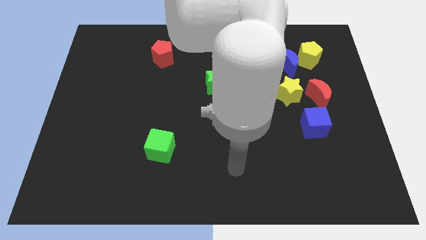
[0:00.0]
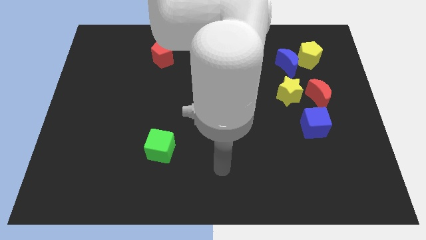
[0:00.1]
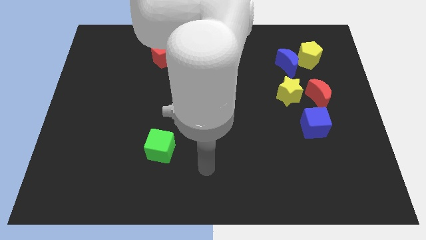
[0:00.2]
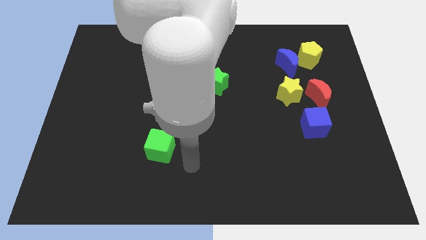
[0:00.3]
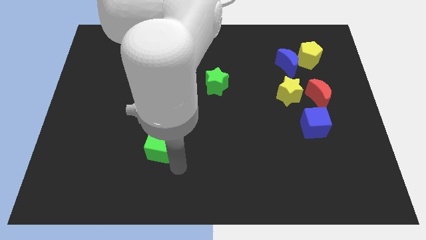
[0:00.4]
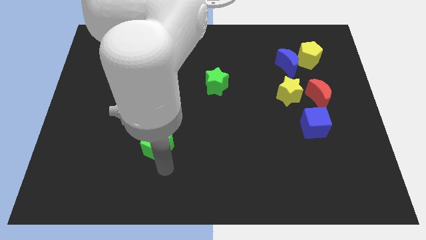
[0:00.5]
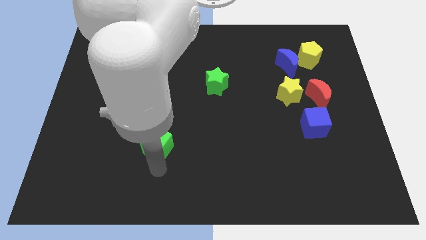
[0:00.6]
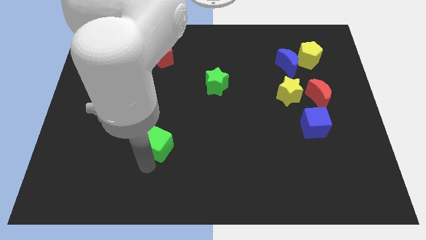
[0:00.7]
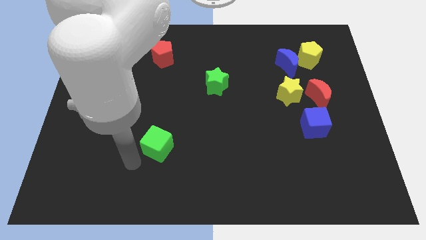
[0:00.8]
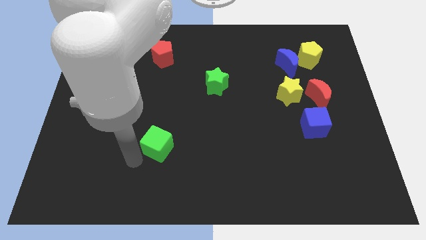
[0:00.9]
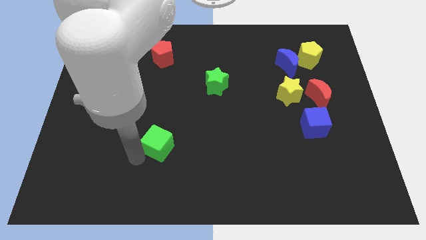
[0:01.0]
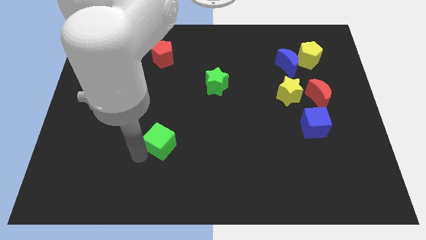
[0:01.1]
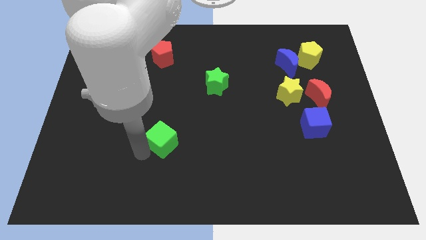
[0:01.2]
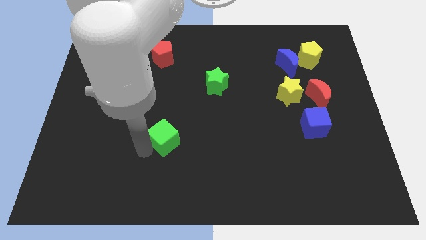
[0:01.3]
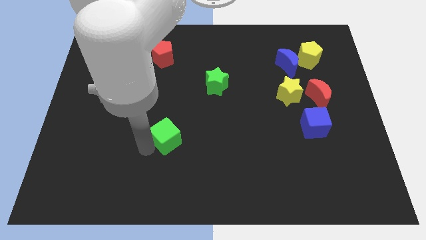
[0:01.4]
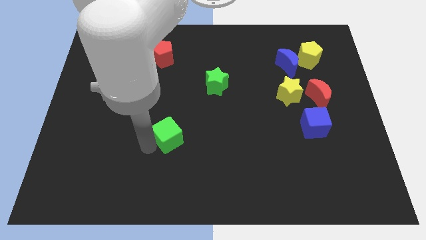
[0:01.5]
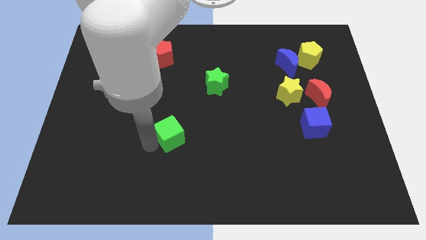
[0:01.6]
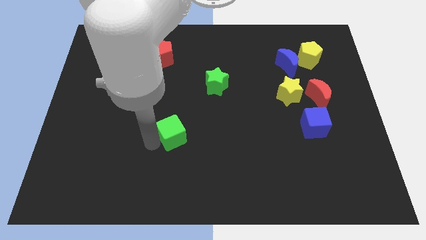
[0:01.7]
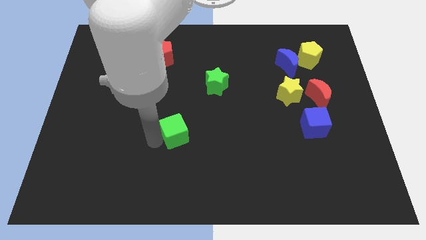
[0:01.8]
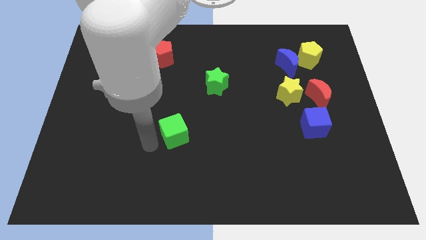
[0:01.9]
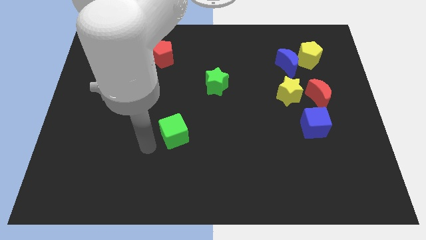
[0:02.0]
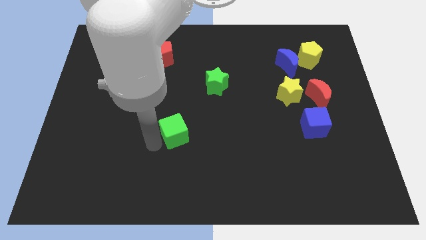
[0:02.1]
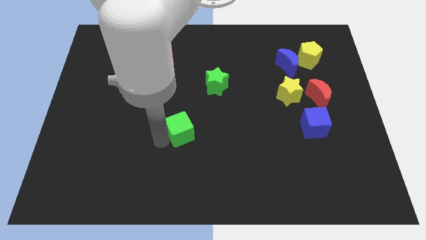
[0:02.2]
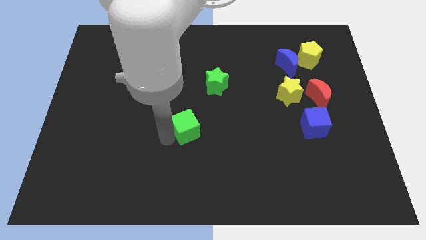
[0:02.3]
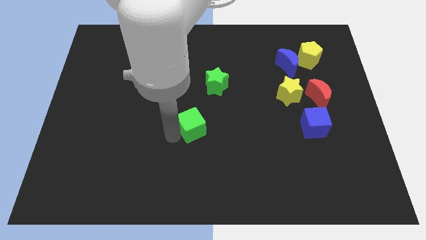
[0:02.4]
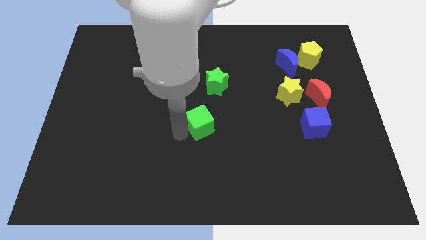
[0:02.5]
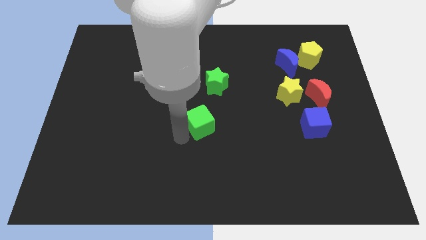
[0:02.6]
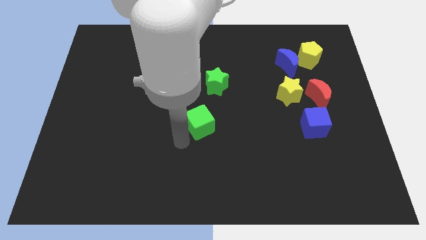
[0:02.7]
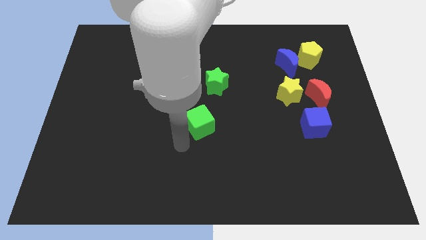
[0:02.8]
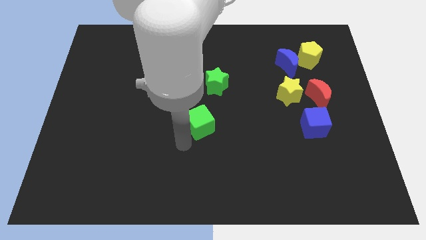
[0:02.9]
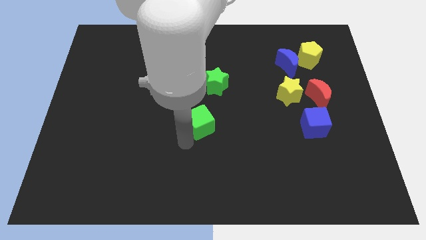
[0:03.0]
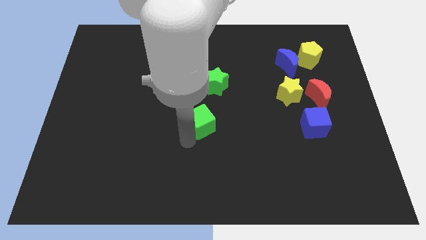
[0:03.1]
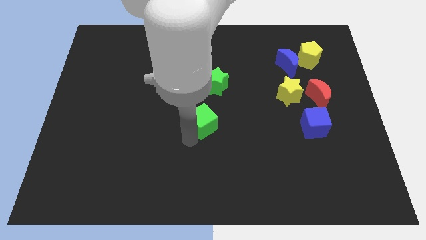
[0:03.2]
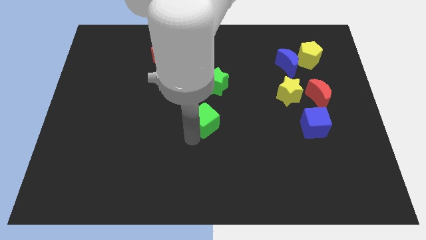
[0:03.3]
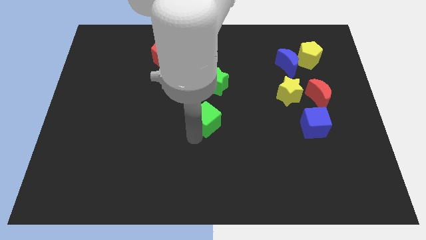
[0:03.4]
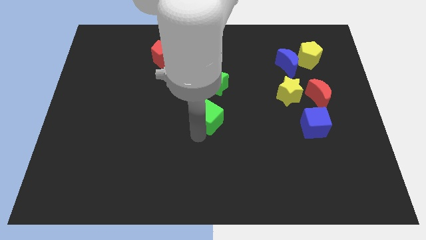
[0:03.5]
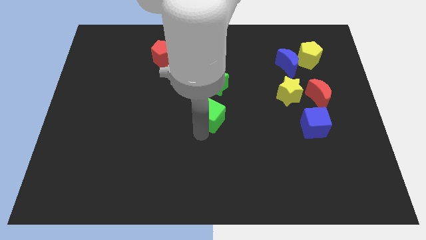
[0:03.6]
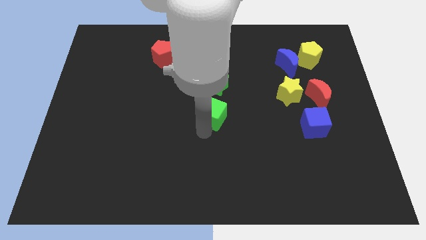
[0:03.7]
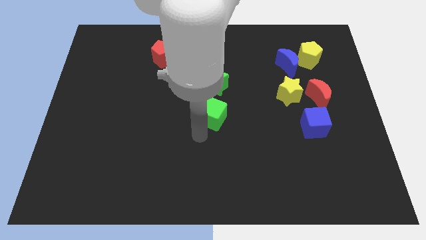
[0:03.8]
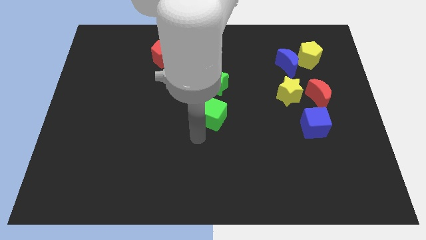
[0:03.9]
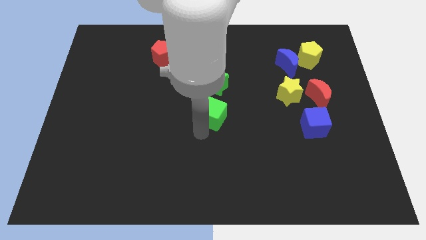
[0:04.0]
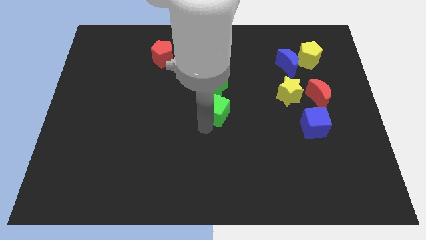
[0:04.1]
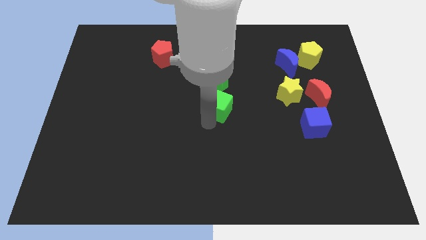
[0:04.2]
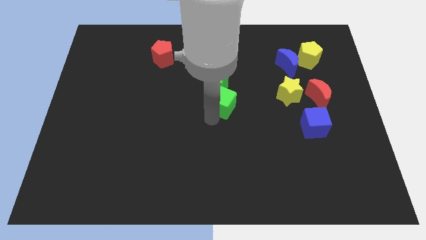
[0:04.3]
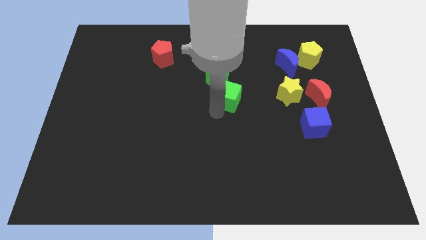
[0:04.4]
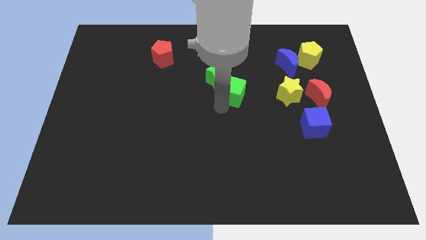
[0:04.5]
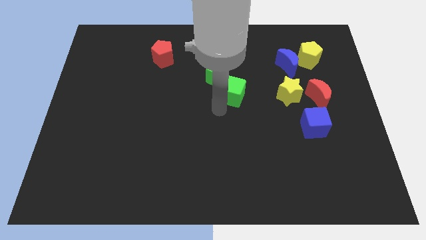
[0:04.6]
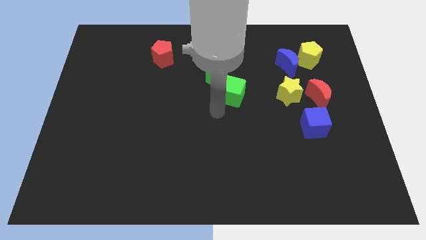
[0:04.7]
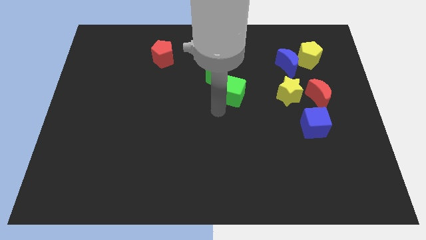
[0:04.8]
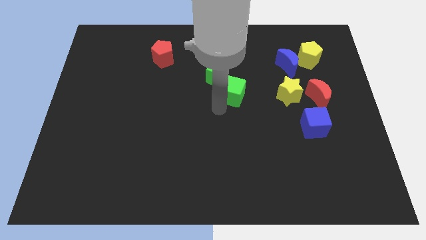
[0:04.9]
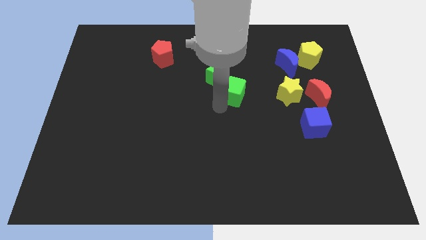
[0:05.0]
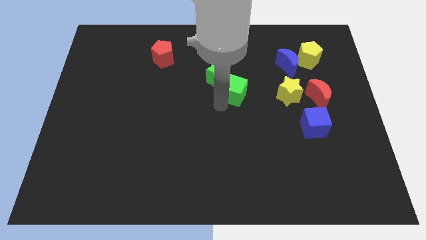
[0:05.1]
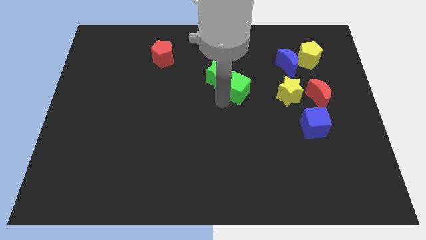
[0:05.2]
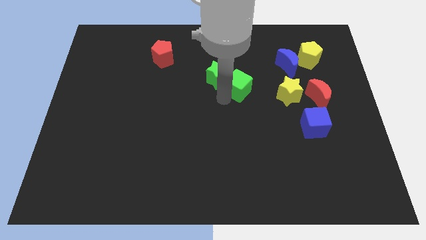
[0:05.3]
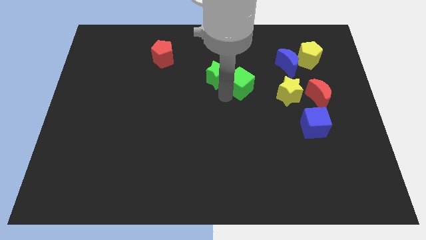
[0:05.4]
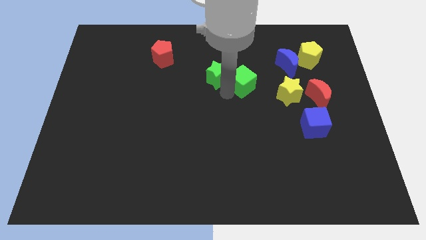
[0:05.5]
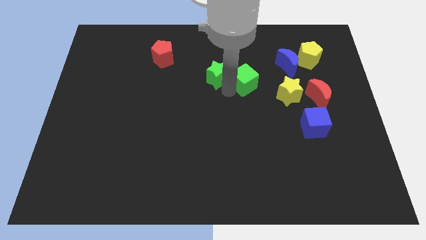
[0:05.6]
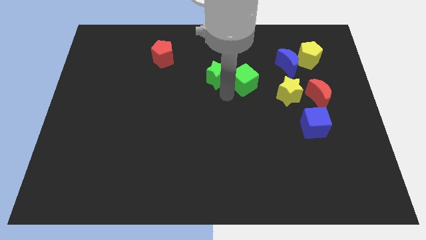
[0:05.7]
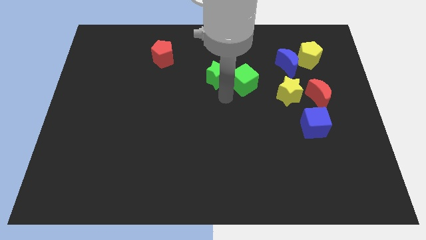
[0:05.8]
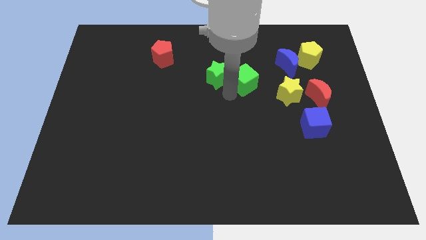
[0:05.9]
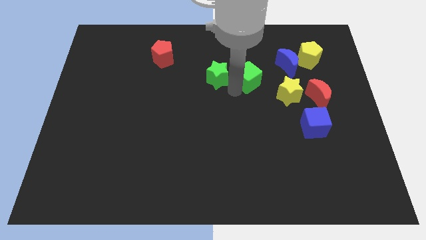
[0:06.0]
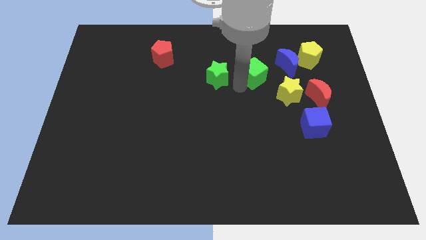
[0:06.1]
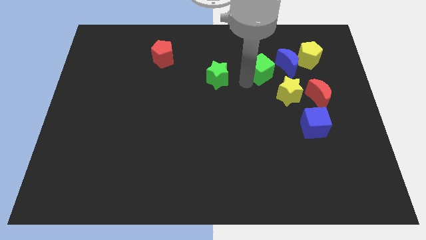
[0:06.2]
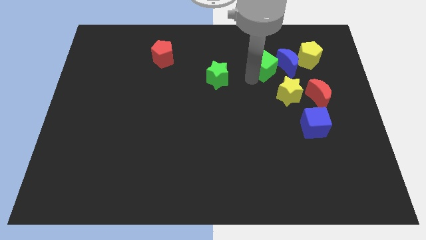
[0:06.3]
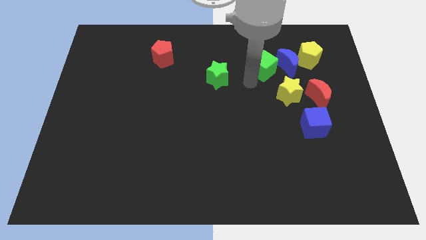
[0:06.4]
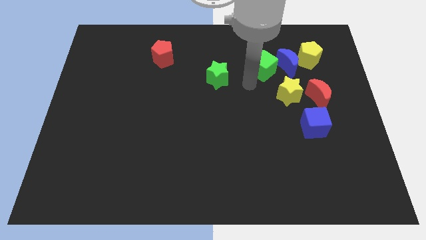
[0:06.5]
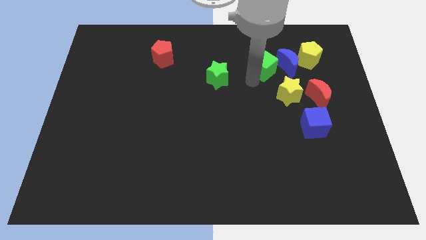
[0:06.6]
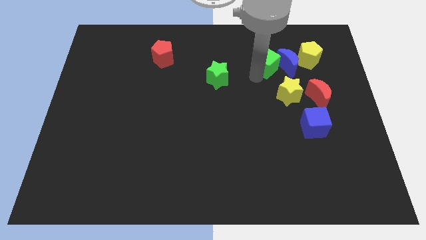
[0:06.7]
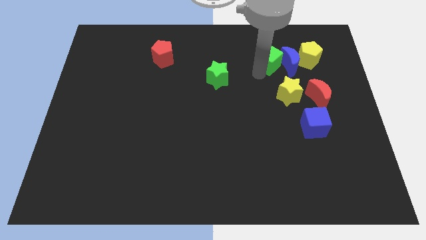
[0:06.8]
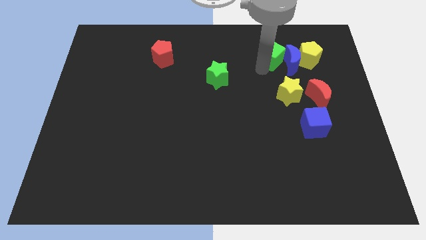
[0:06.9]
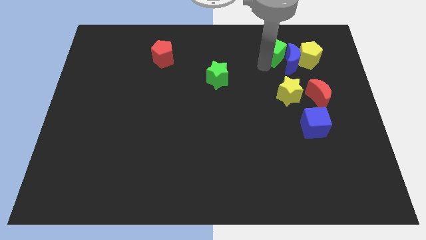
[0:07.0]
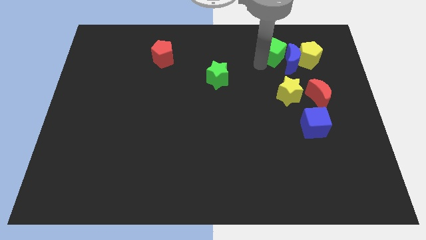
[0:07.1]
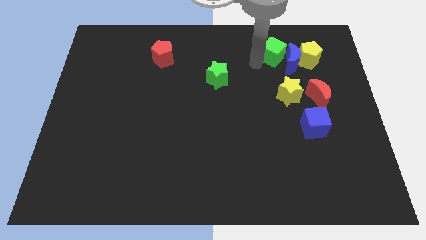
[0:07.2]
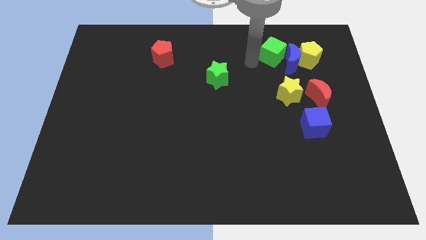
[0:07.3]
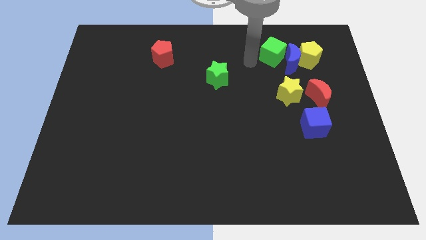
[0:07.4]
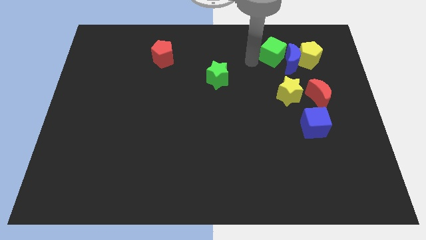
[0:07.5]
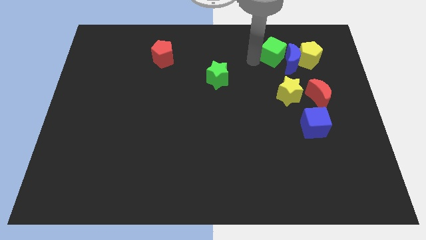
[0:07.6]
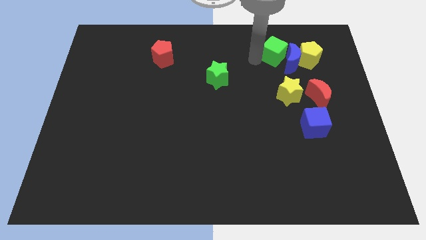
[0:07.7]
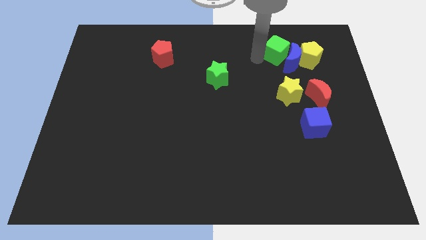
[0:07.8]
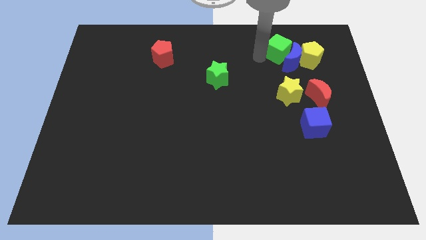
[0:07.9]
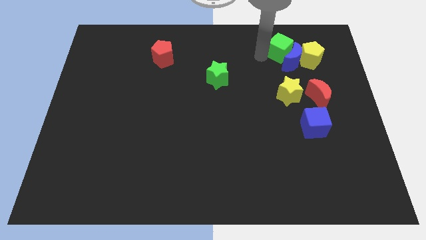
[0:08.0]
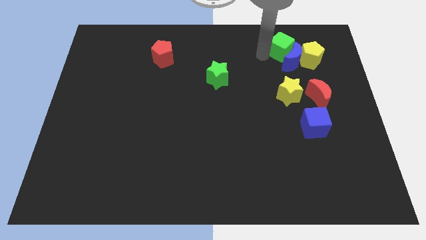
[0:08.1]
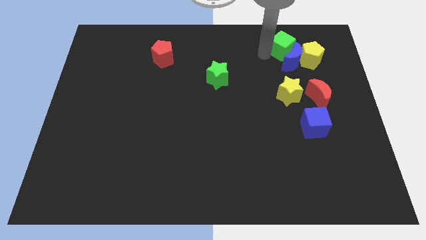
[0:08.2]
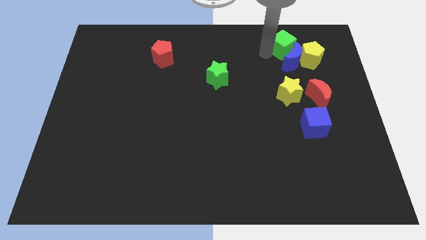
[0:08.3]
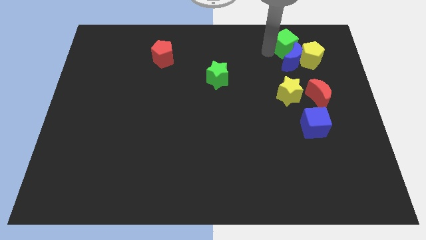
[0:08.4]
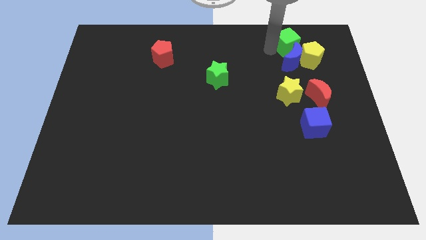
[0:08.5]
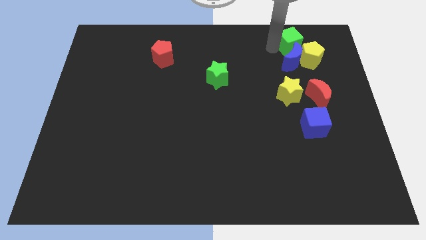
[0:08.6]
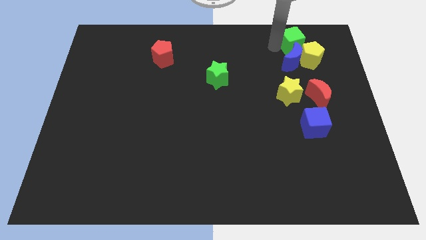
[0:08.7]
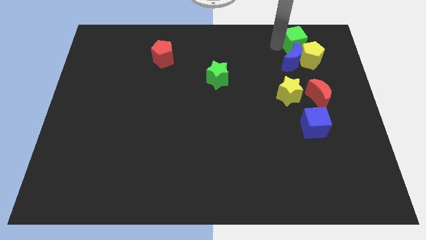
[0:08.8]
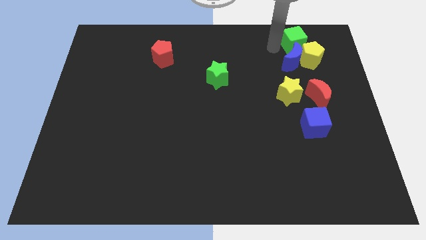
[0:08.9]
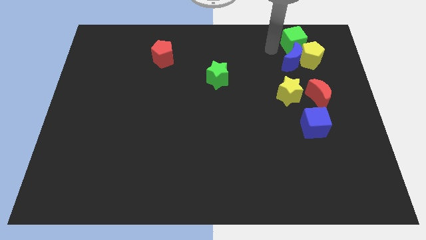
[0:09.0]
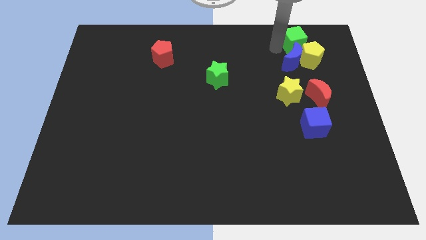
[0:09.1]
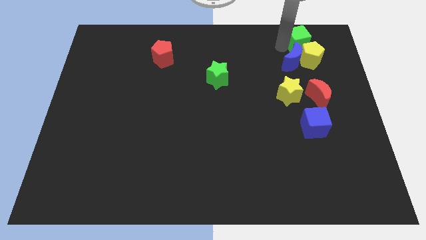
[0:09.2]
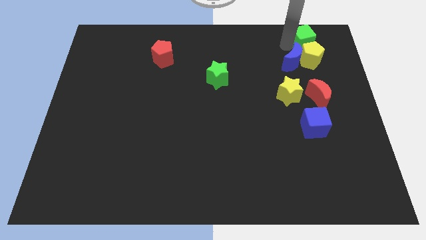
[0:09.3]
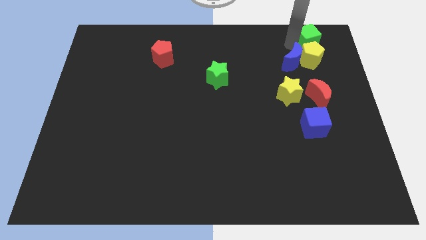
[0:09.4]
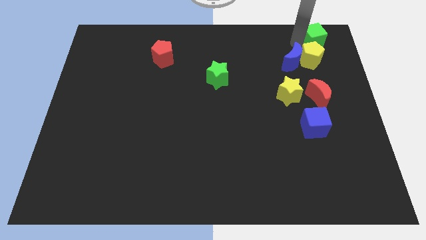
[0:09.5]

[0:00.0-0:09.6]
push the green cube to the top right of the board
